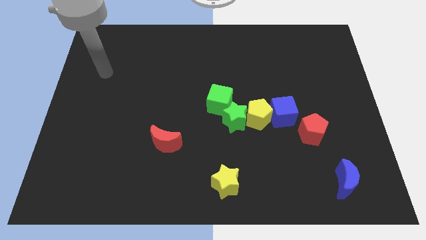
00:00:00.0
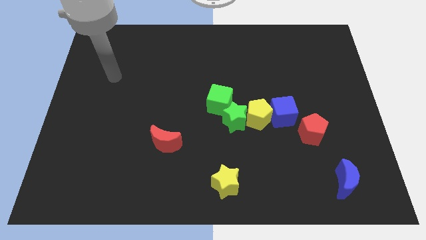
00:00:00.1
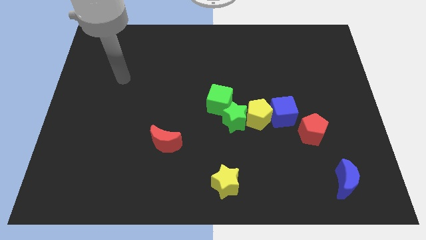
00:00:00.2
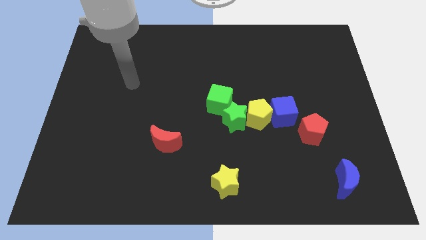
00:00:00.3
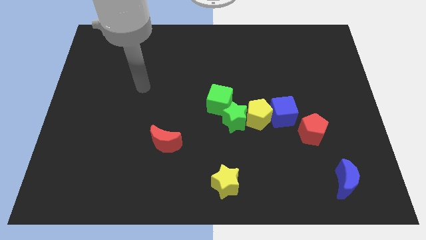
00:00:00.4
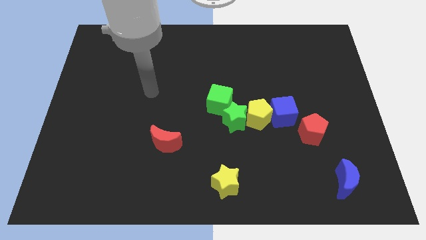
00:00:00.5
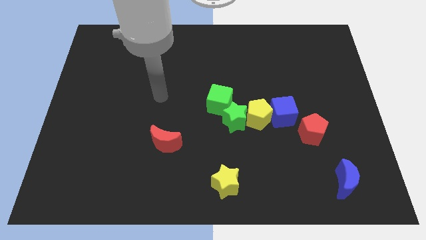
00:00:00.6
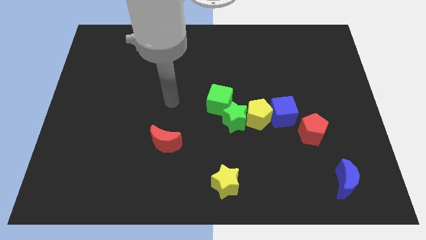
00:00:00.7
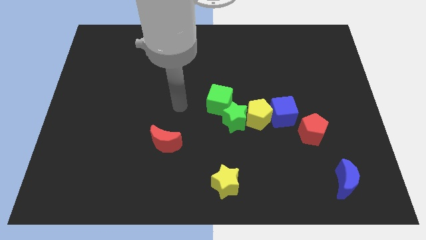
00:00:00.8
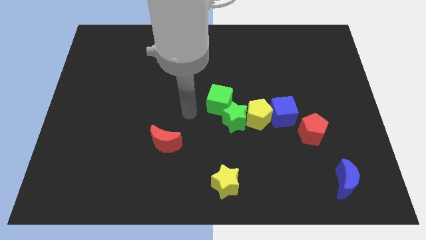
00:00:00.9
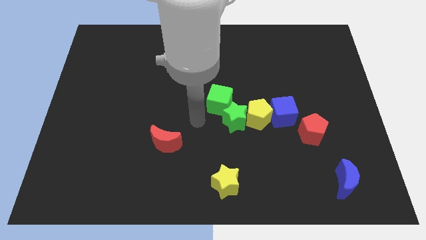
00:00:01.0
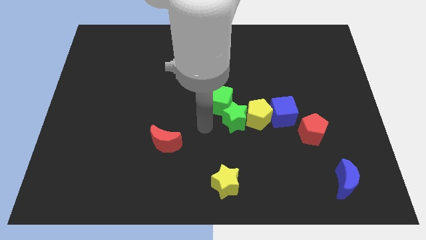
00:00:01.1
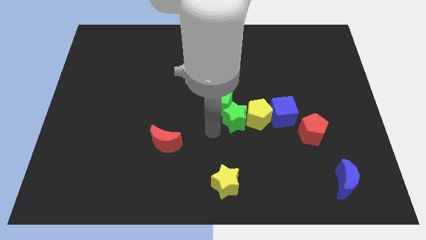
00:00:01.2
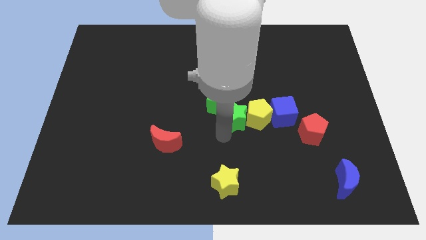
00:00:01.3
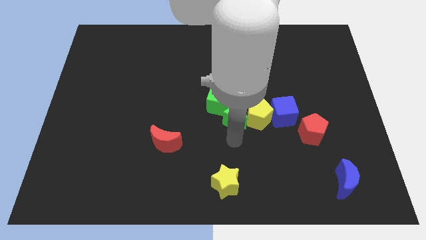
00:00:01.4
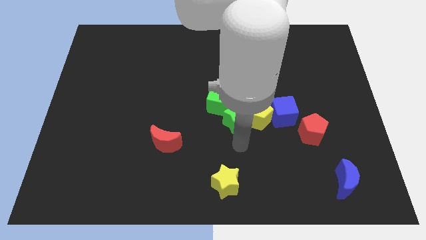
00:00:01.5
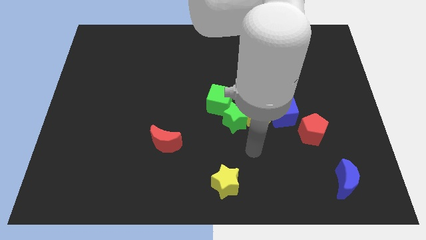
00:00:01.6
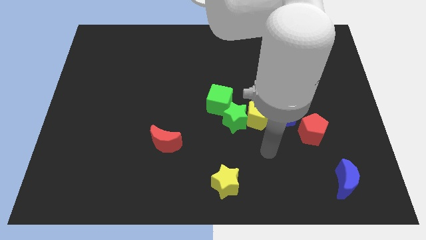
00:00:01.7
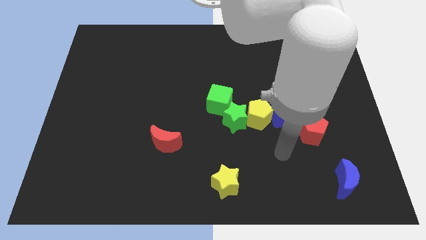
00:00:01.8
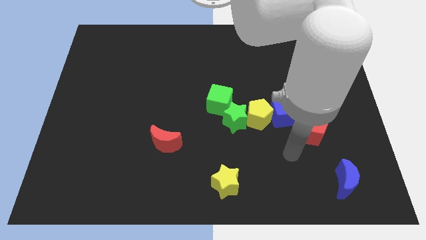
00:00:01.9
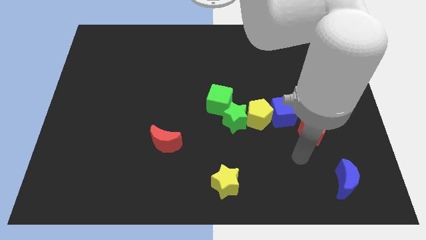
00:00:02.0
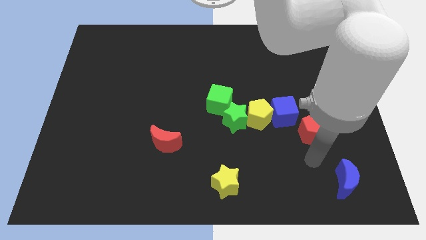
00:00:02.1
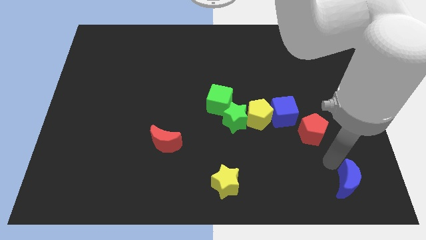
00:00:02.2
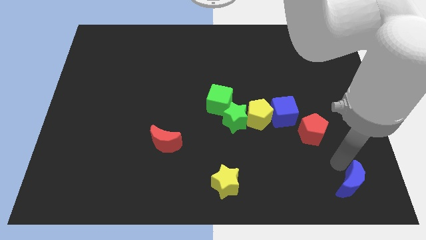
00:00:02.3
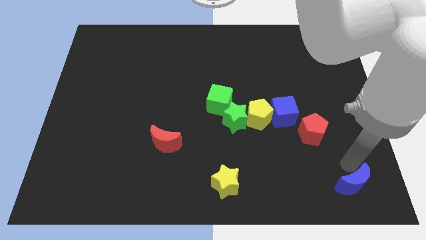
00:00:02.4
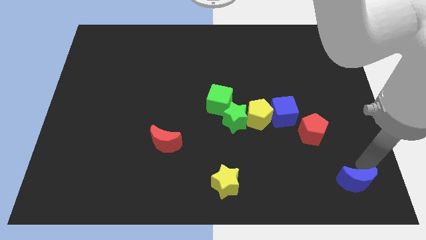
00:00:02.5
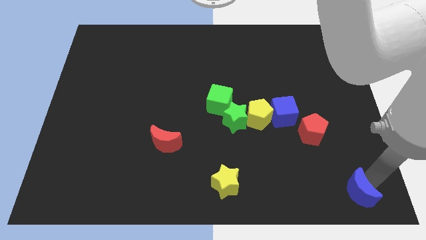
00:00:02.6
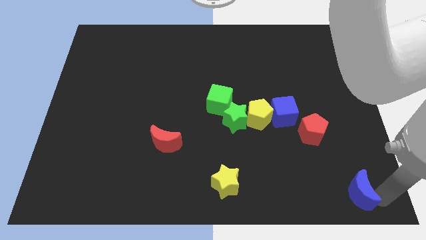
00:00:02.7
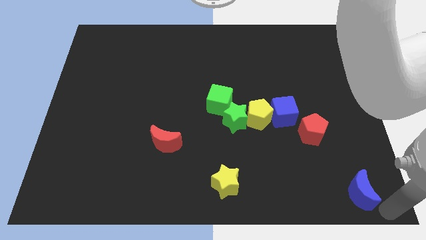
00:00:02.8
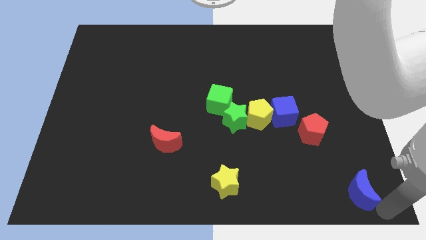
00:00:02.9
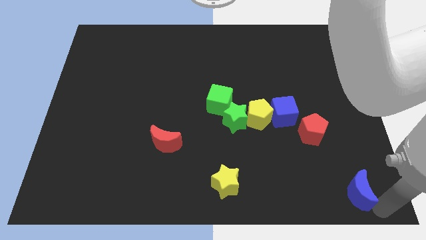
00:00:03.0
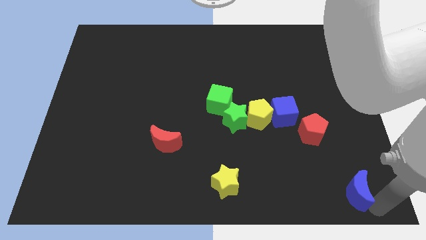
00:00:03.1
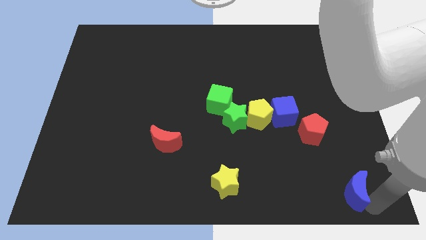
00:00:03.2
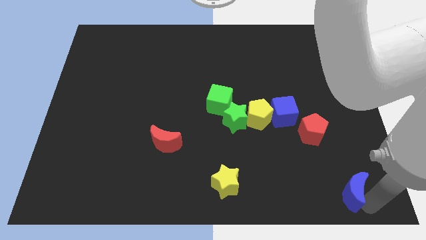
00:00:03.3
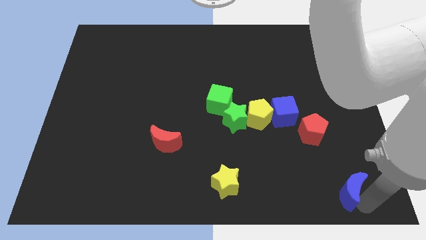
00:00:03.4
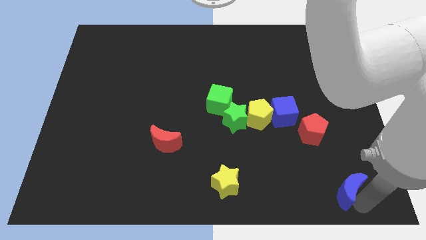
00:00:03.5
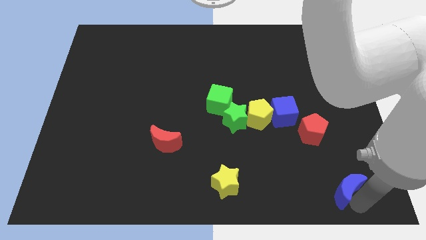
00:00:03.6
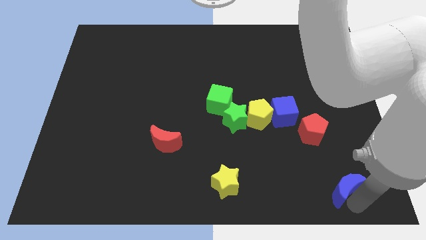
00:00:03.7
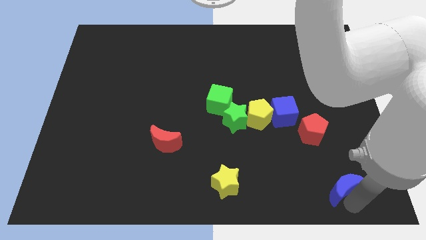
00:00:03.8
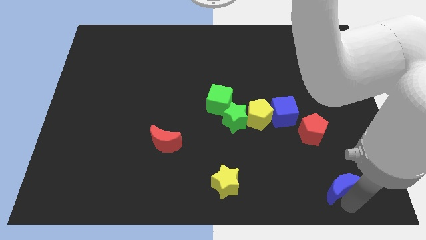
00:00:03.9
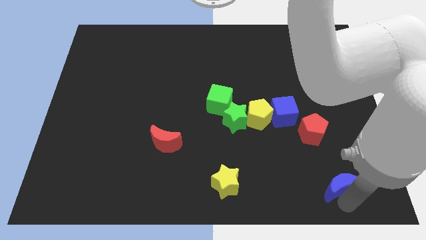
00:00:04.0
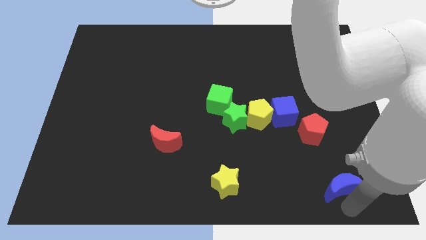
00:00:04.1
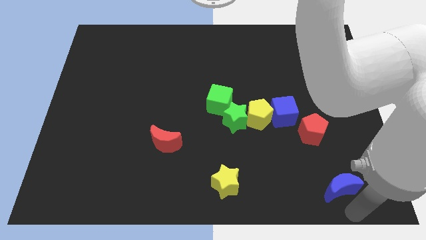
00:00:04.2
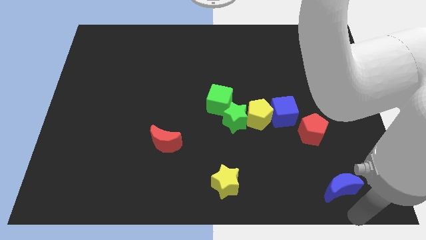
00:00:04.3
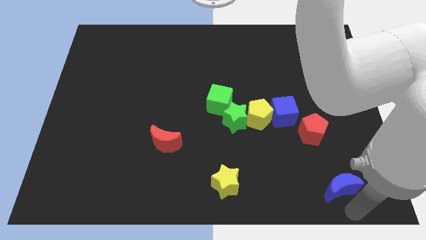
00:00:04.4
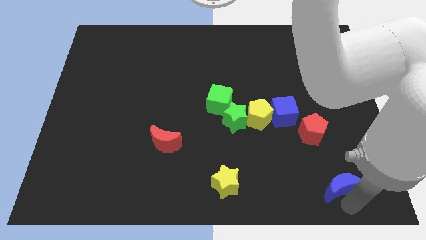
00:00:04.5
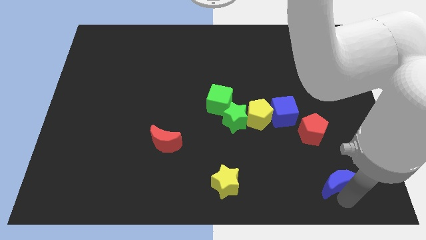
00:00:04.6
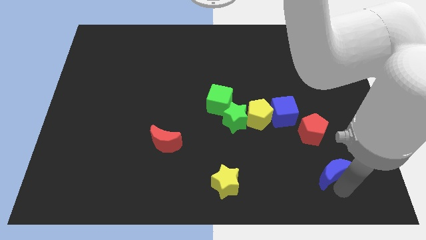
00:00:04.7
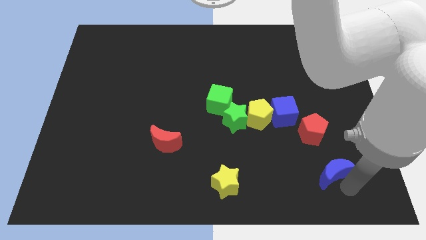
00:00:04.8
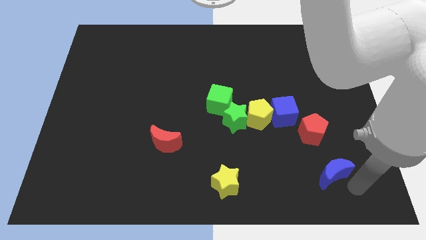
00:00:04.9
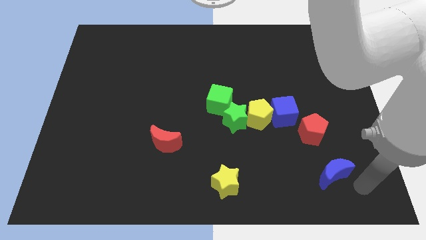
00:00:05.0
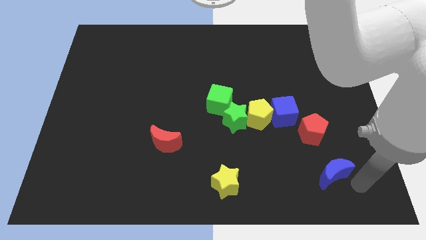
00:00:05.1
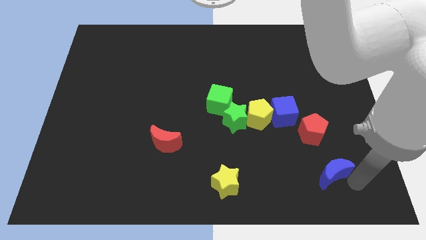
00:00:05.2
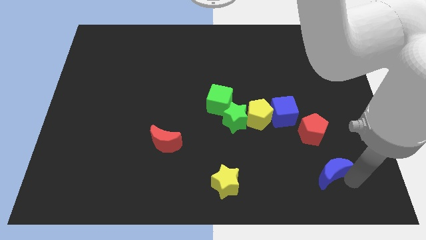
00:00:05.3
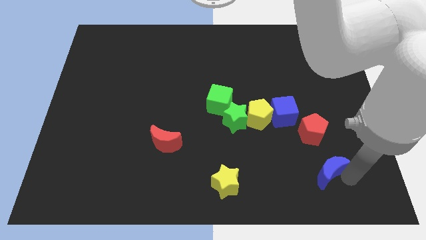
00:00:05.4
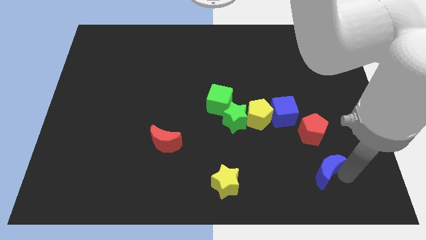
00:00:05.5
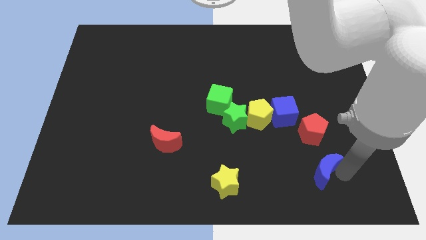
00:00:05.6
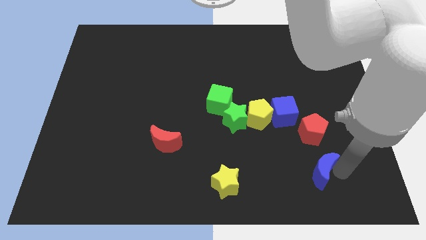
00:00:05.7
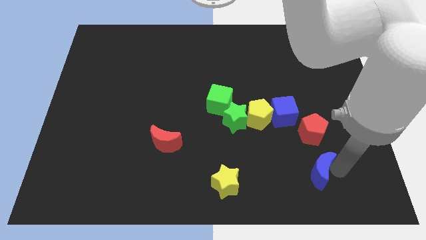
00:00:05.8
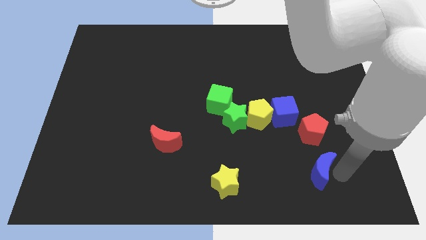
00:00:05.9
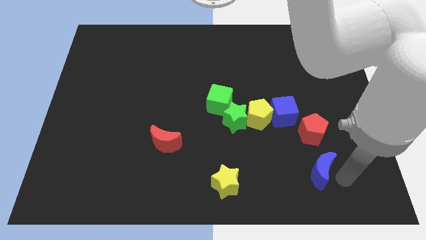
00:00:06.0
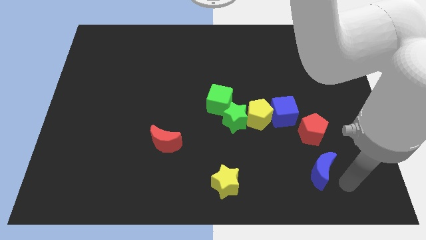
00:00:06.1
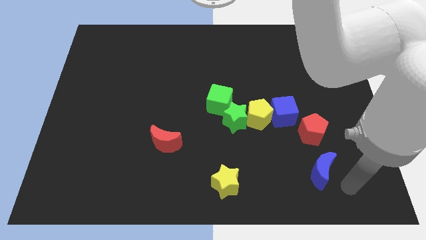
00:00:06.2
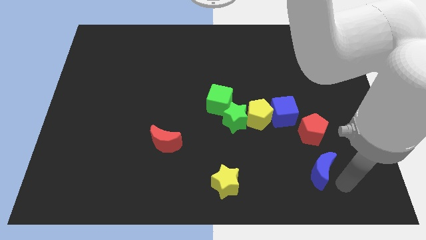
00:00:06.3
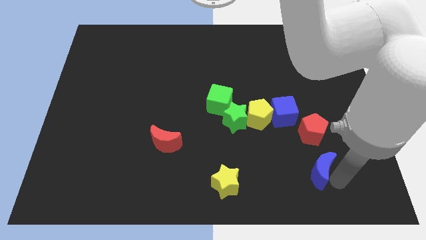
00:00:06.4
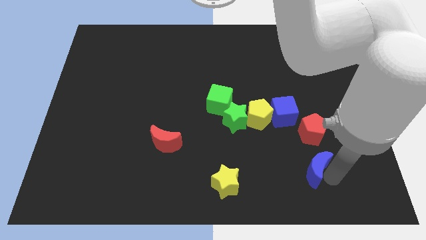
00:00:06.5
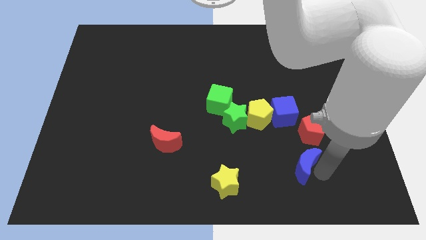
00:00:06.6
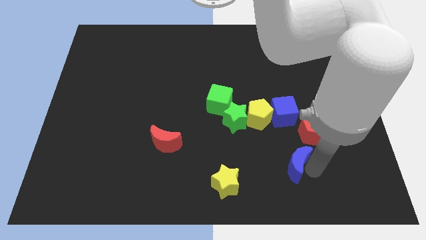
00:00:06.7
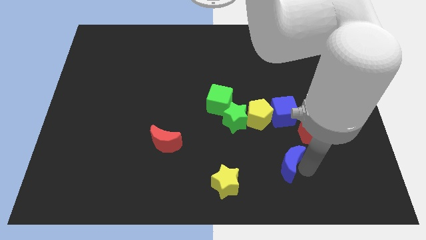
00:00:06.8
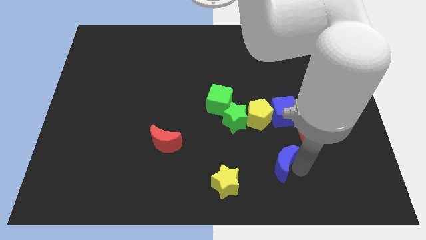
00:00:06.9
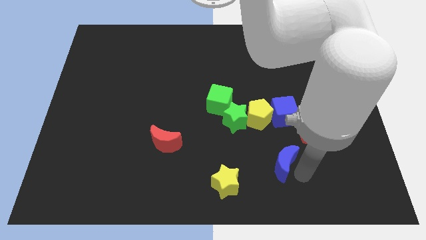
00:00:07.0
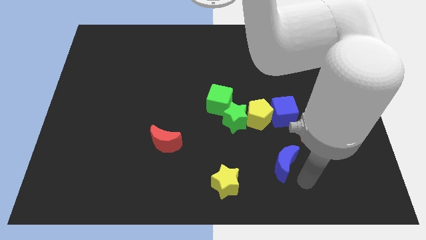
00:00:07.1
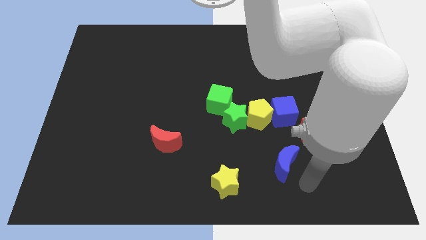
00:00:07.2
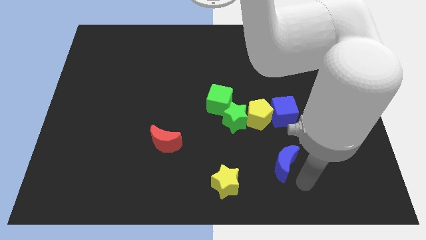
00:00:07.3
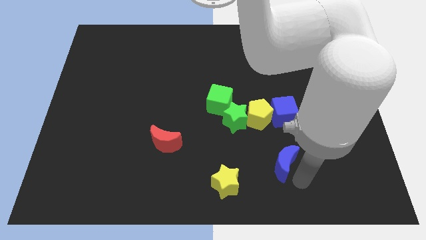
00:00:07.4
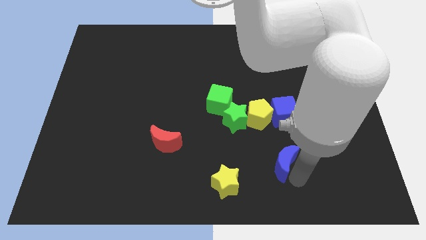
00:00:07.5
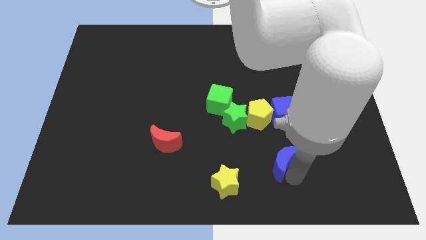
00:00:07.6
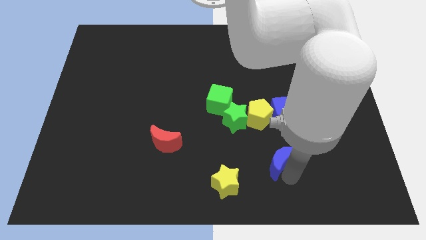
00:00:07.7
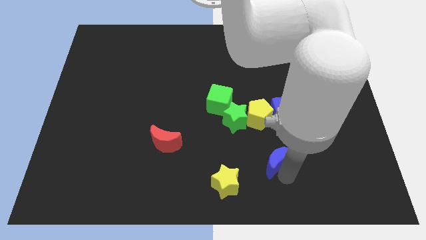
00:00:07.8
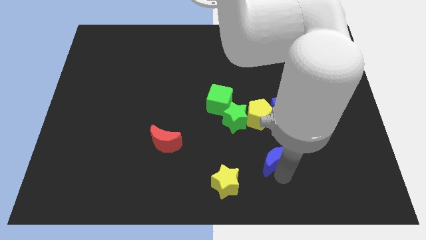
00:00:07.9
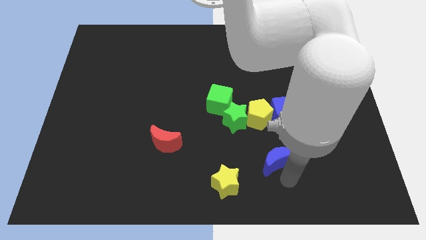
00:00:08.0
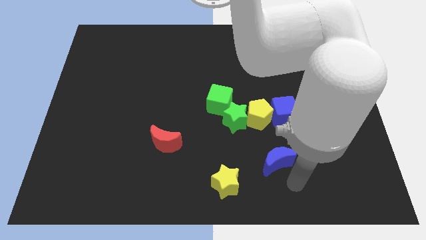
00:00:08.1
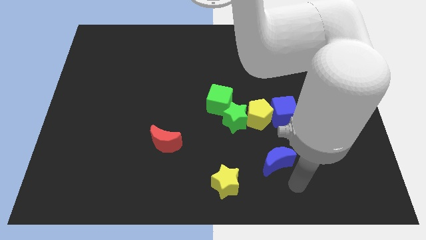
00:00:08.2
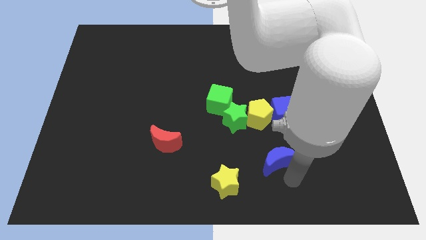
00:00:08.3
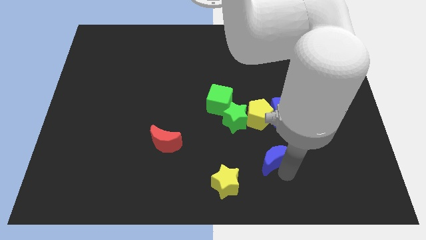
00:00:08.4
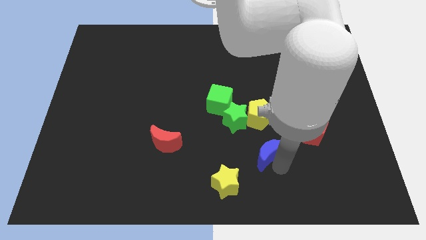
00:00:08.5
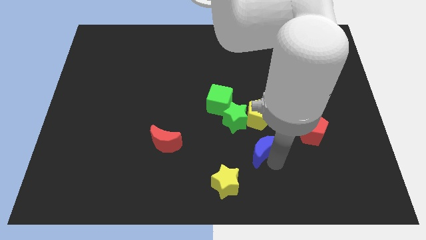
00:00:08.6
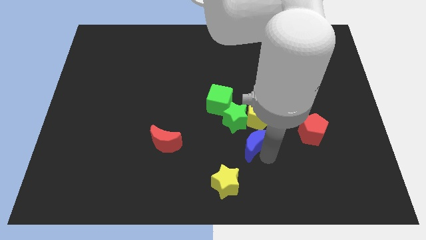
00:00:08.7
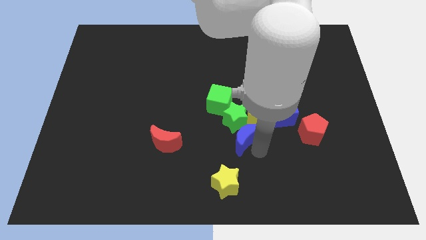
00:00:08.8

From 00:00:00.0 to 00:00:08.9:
put the blue moon towards the green star
